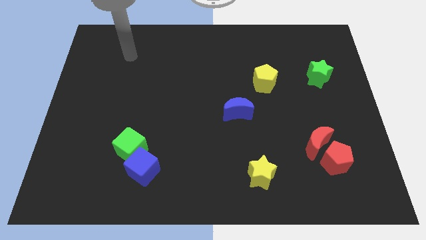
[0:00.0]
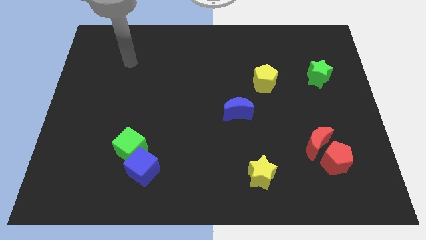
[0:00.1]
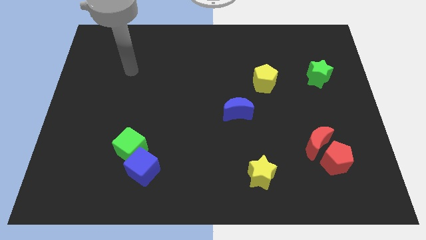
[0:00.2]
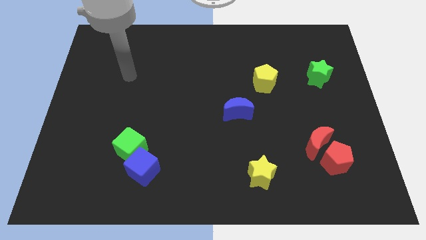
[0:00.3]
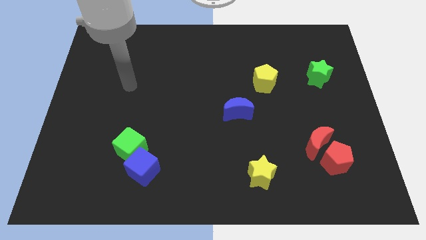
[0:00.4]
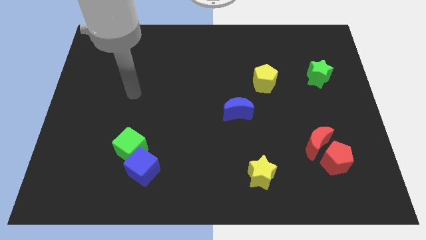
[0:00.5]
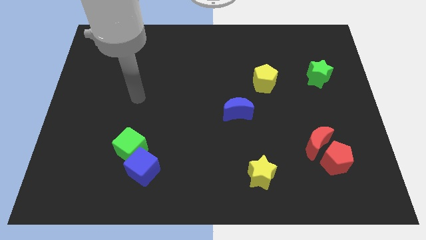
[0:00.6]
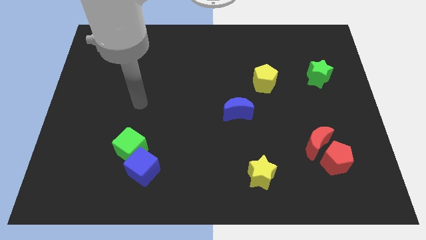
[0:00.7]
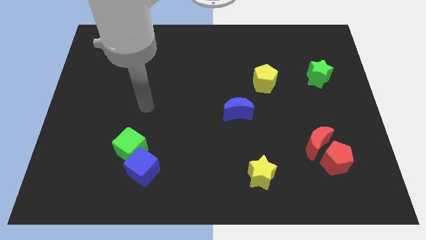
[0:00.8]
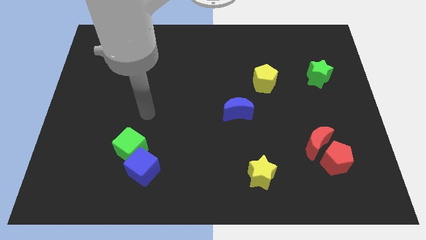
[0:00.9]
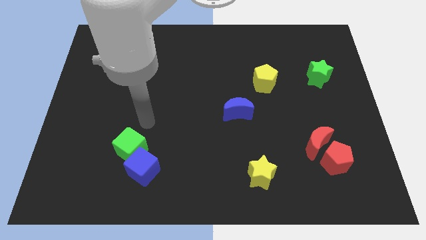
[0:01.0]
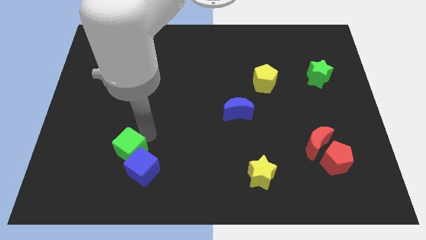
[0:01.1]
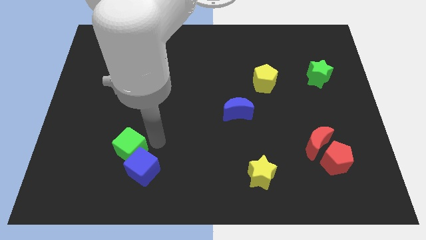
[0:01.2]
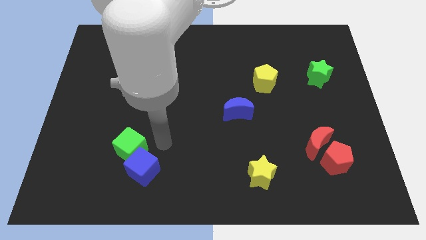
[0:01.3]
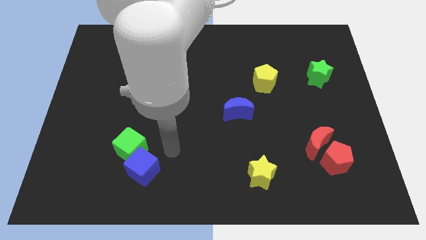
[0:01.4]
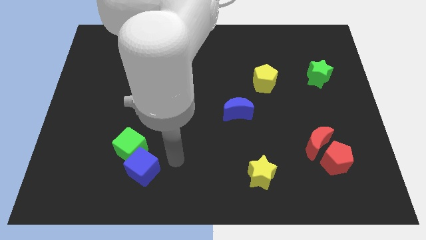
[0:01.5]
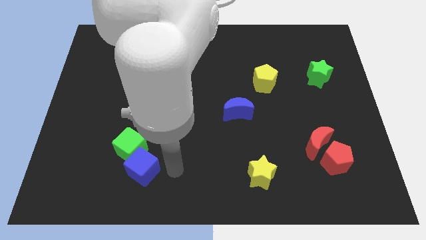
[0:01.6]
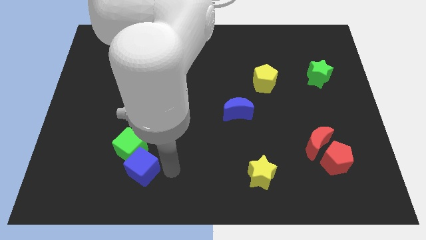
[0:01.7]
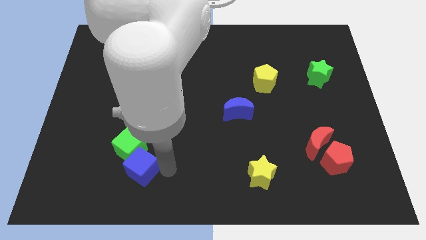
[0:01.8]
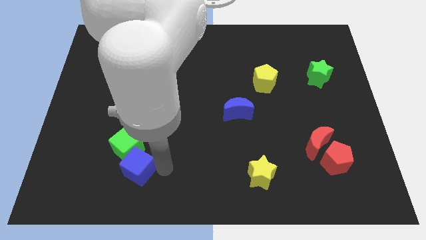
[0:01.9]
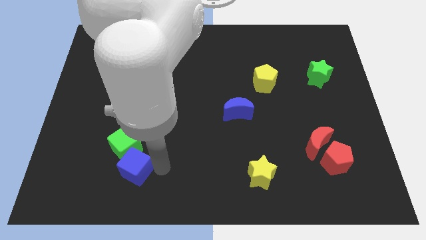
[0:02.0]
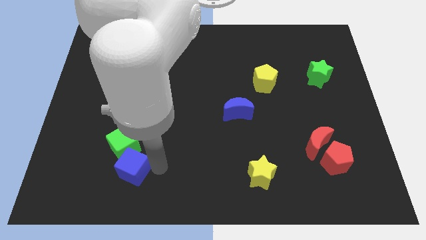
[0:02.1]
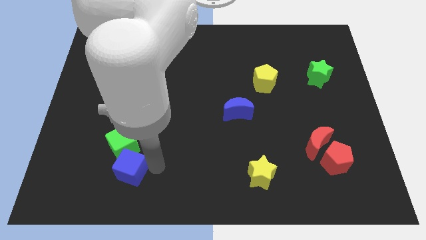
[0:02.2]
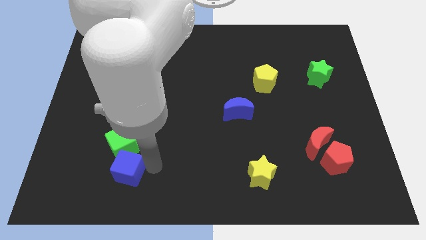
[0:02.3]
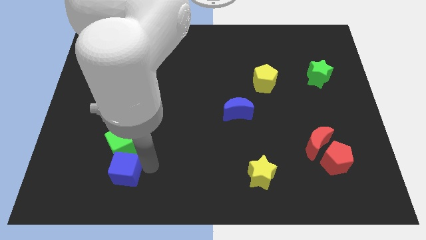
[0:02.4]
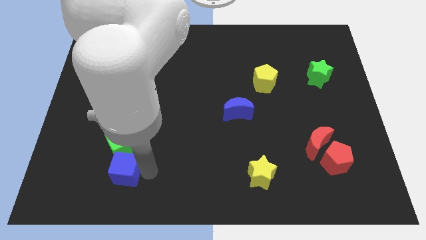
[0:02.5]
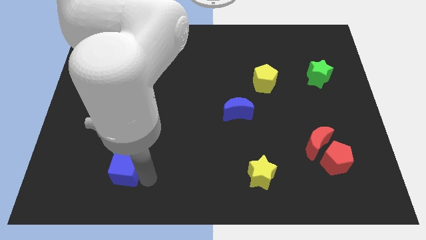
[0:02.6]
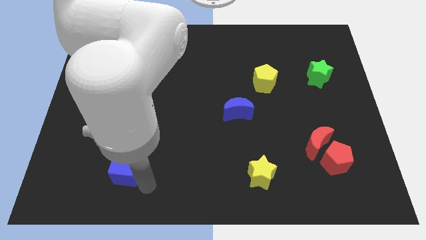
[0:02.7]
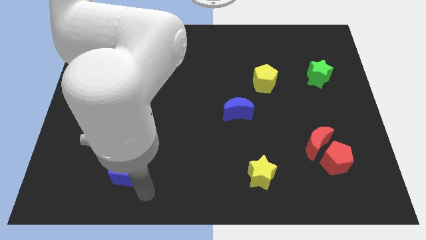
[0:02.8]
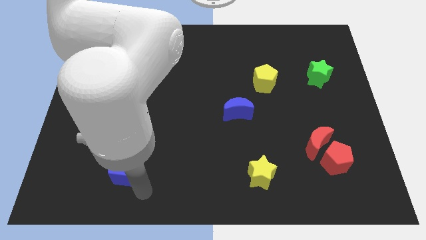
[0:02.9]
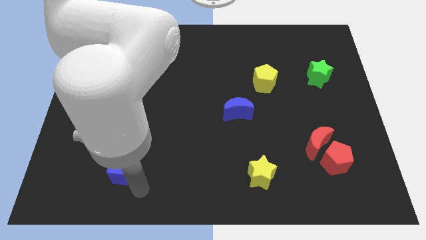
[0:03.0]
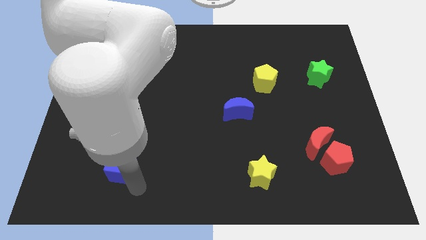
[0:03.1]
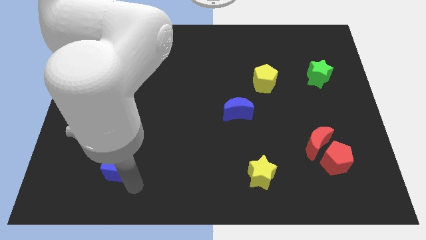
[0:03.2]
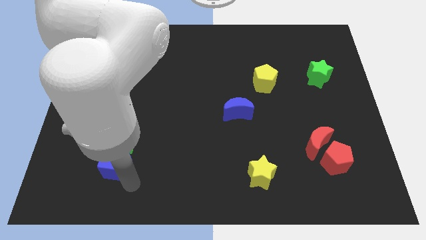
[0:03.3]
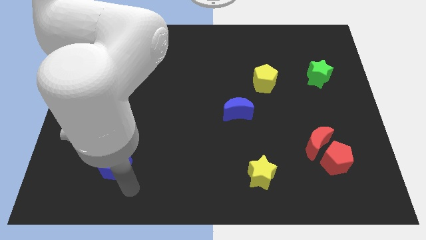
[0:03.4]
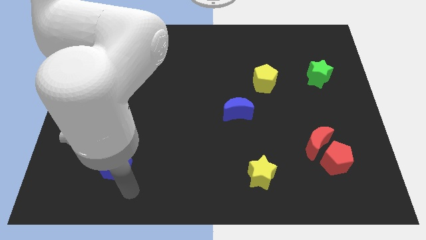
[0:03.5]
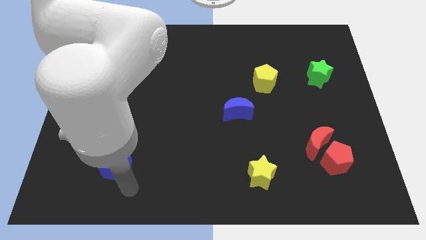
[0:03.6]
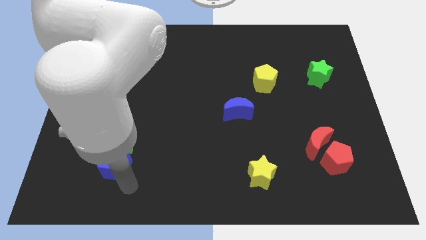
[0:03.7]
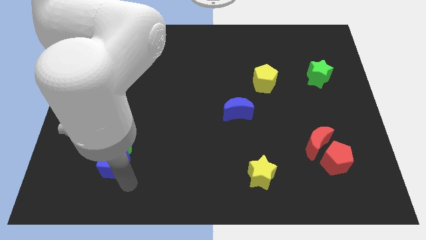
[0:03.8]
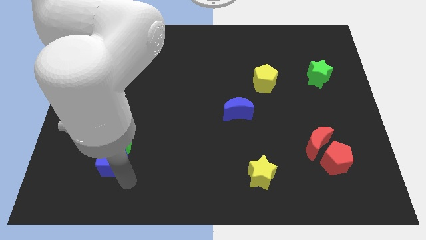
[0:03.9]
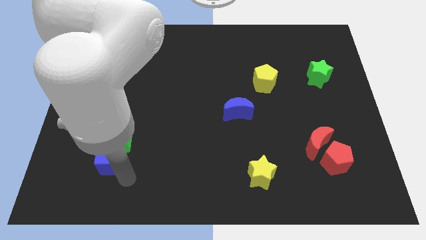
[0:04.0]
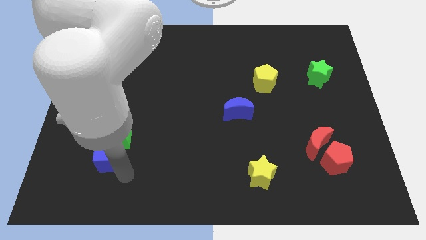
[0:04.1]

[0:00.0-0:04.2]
slide the blue cube diagonally up and left slightly

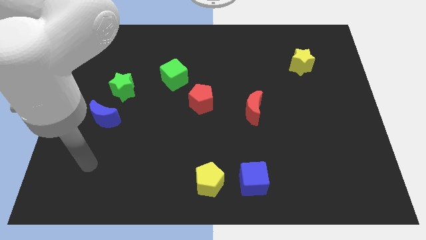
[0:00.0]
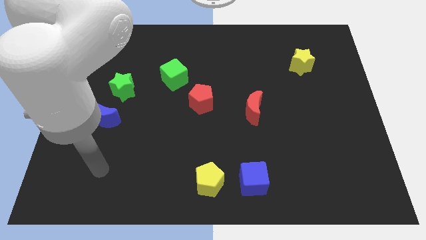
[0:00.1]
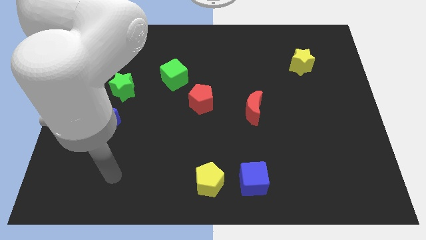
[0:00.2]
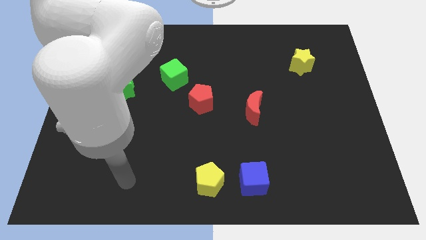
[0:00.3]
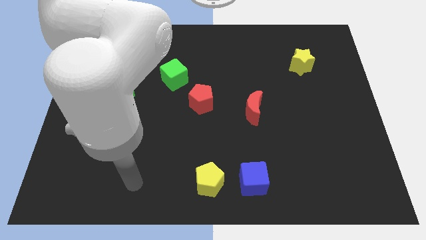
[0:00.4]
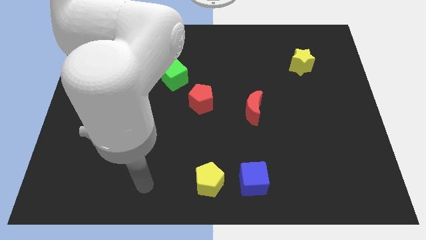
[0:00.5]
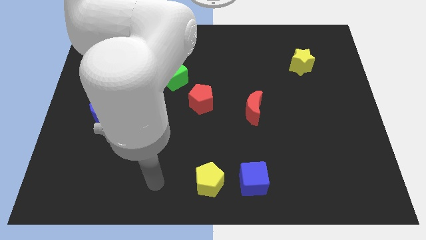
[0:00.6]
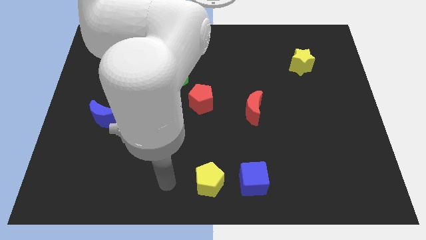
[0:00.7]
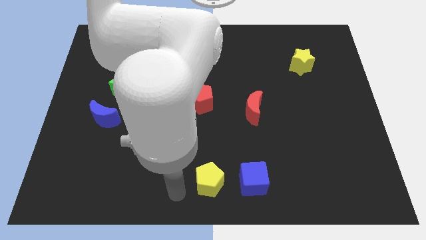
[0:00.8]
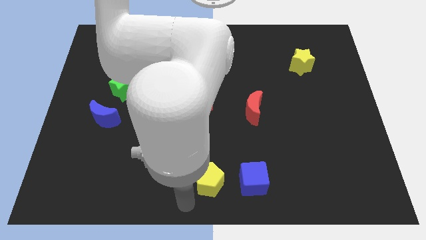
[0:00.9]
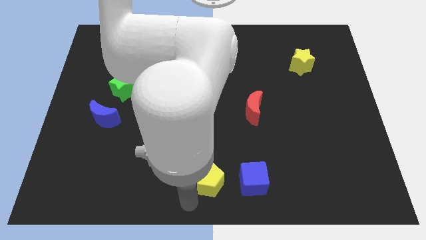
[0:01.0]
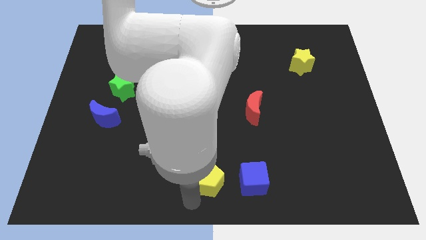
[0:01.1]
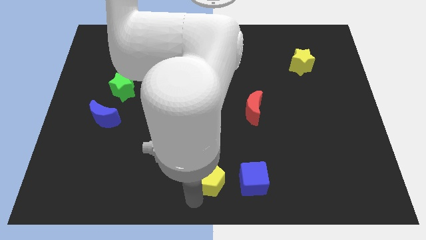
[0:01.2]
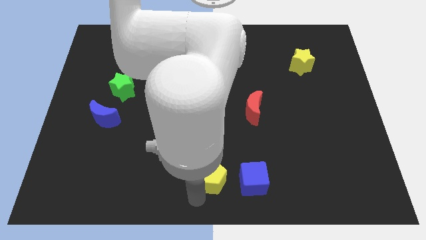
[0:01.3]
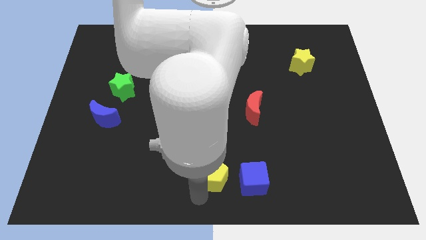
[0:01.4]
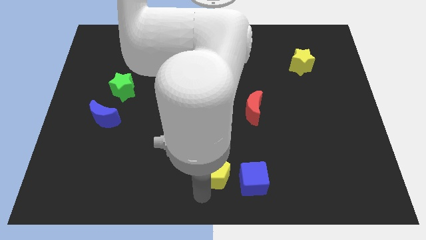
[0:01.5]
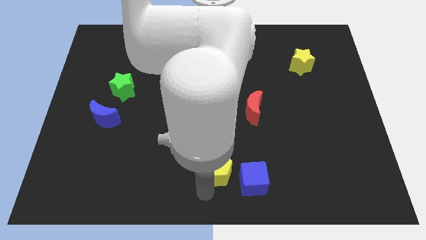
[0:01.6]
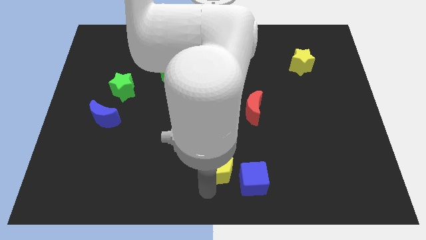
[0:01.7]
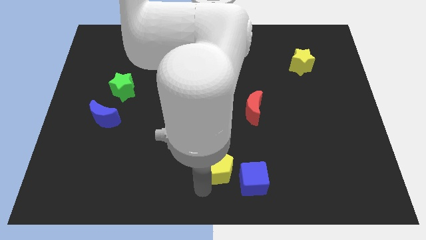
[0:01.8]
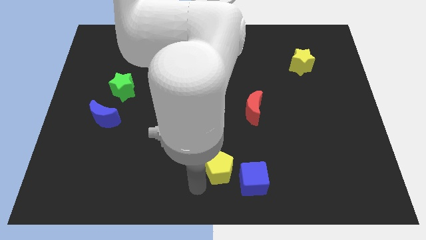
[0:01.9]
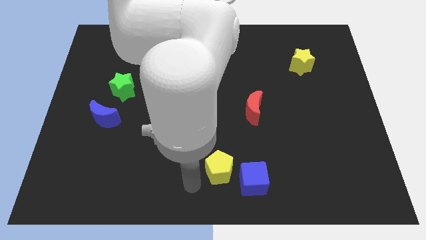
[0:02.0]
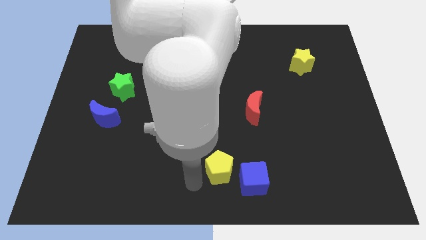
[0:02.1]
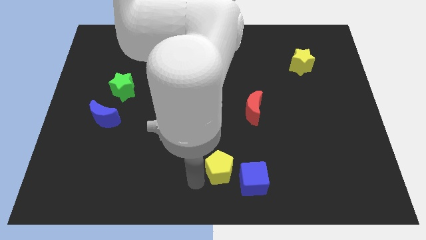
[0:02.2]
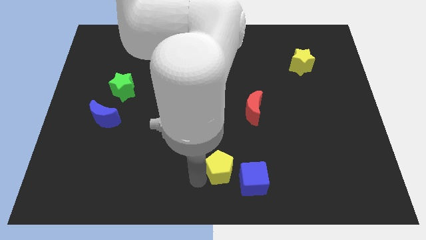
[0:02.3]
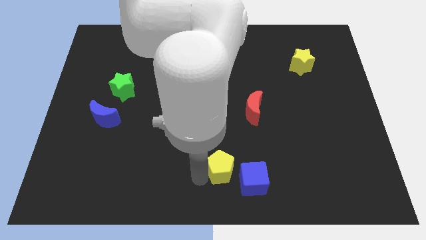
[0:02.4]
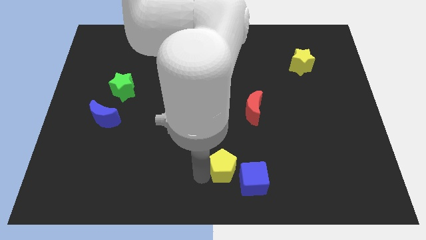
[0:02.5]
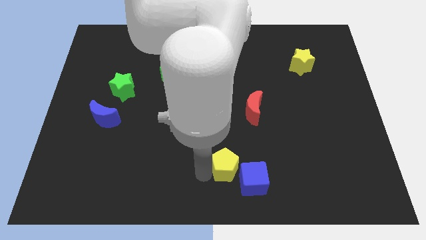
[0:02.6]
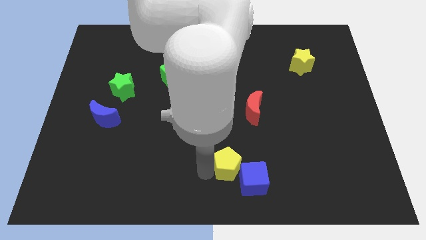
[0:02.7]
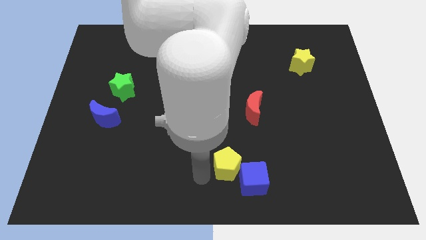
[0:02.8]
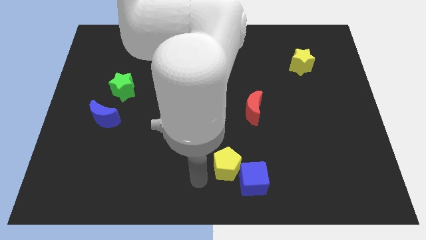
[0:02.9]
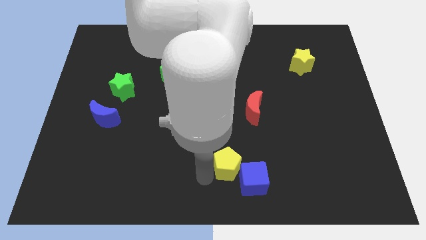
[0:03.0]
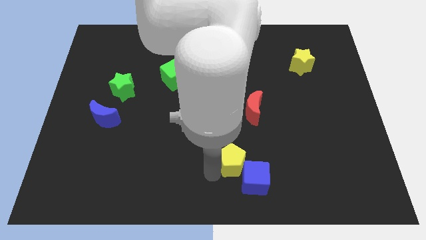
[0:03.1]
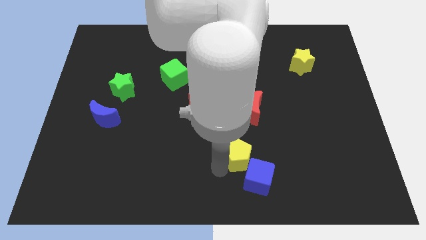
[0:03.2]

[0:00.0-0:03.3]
slightly slide the yellow pentagon upwards and right

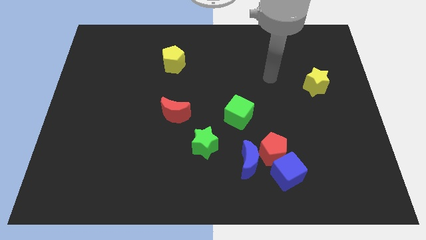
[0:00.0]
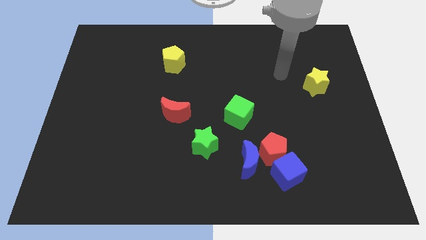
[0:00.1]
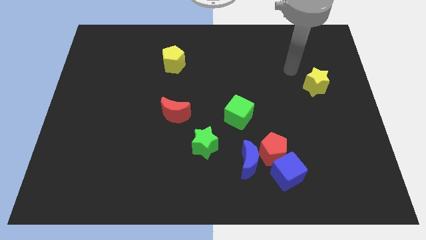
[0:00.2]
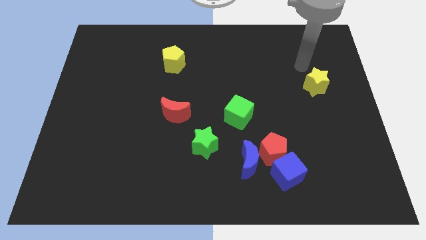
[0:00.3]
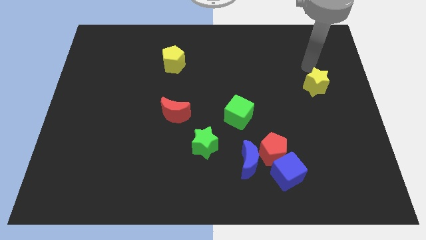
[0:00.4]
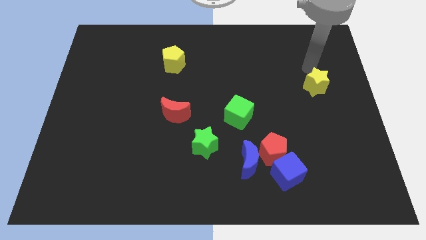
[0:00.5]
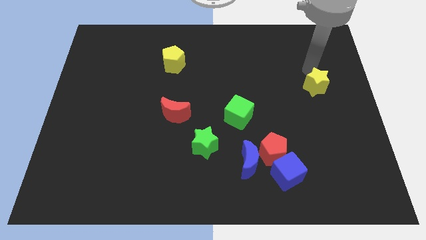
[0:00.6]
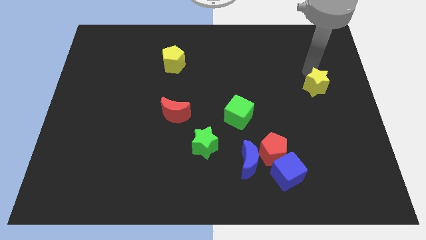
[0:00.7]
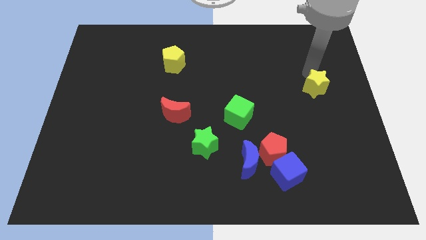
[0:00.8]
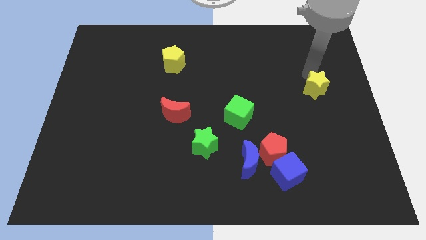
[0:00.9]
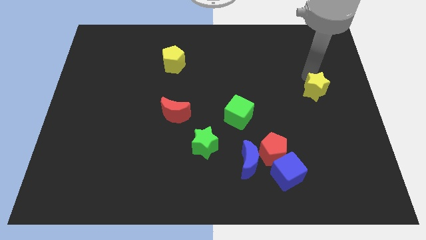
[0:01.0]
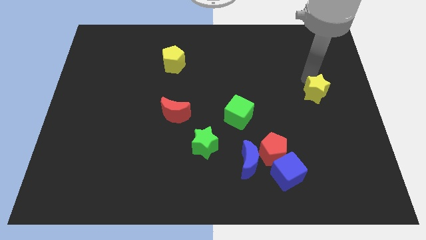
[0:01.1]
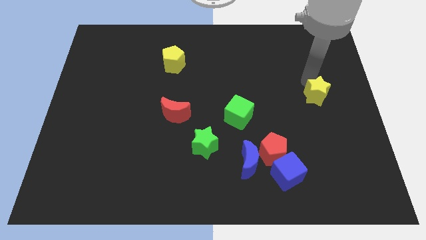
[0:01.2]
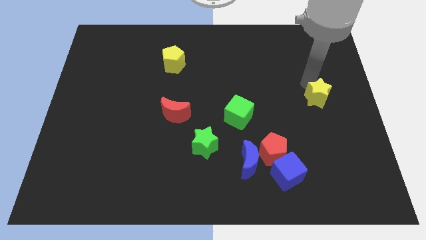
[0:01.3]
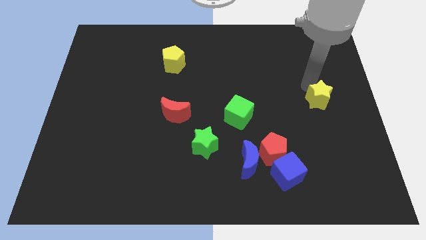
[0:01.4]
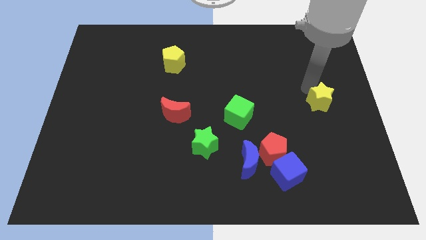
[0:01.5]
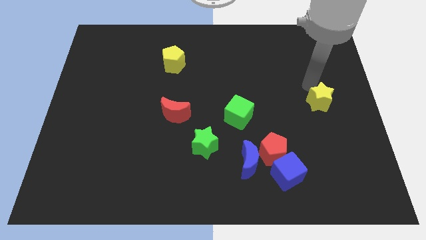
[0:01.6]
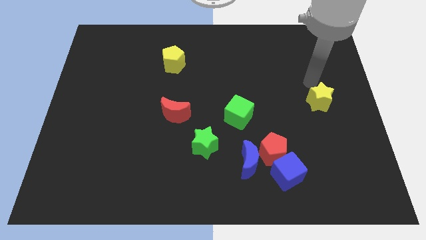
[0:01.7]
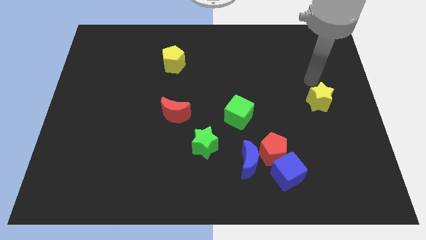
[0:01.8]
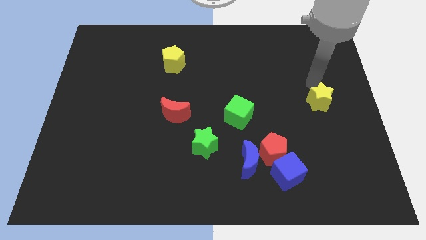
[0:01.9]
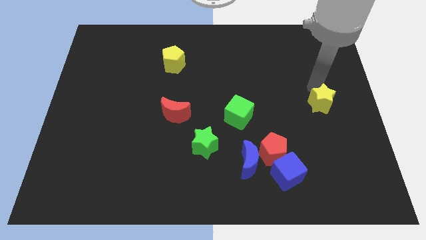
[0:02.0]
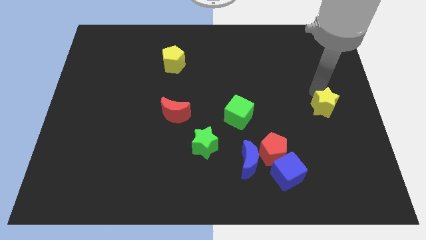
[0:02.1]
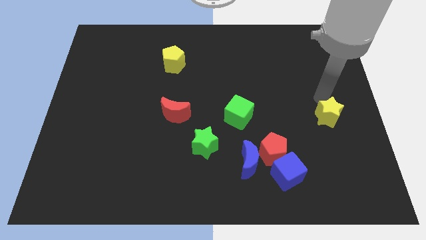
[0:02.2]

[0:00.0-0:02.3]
slightly push the yellow star down
